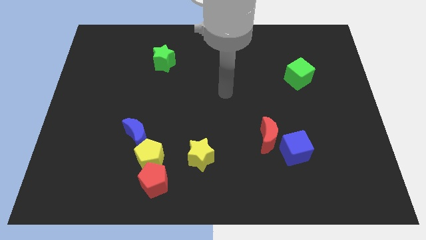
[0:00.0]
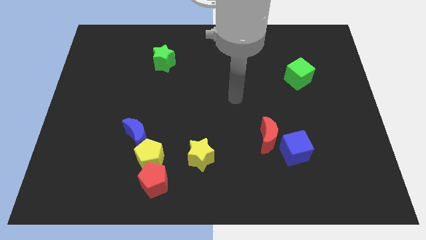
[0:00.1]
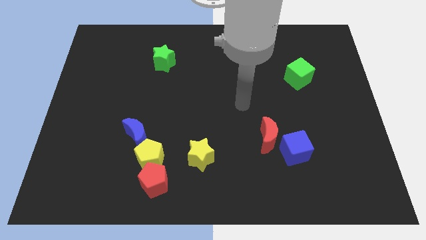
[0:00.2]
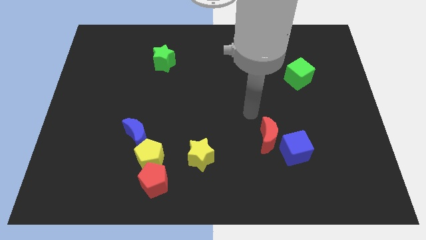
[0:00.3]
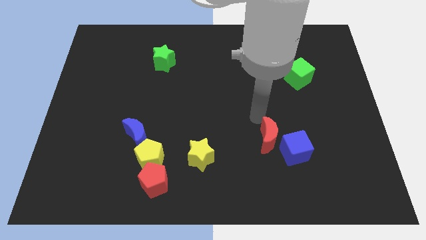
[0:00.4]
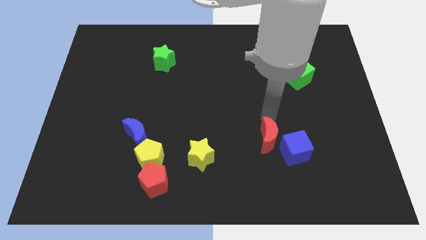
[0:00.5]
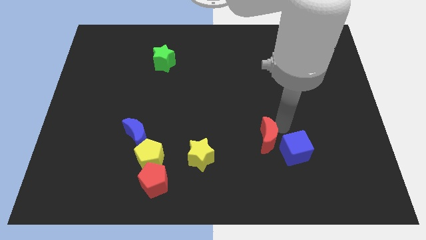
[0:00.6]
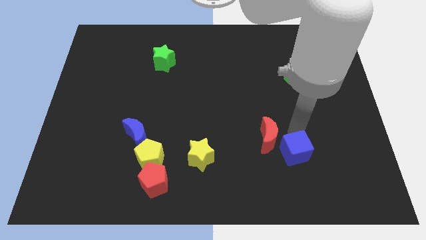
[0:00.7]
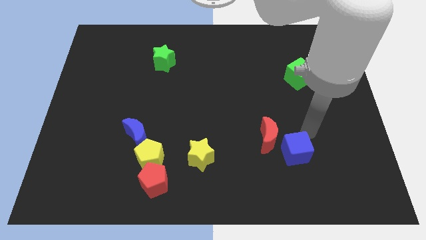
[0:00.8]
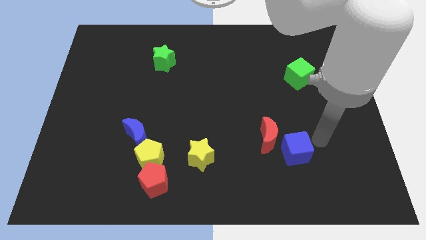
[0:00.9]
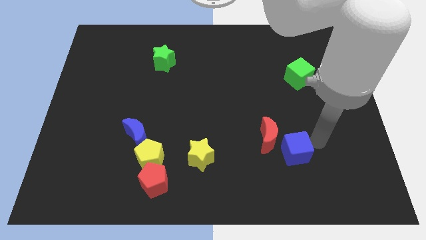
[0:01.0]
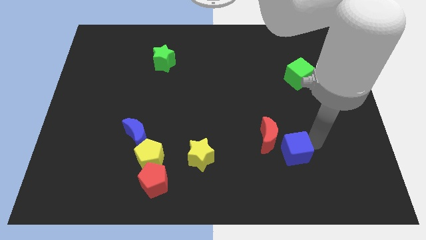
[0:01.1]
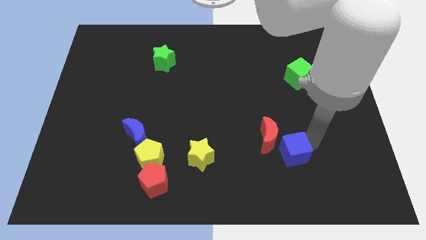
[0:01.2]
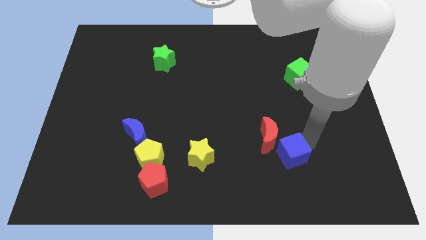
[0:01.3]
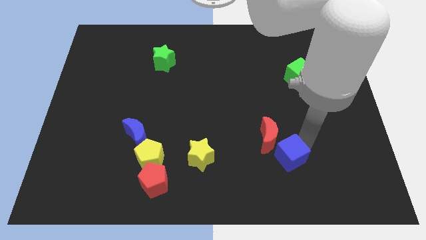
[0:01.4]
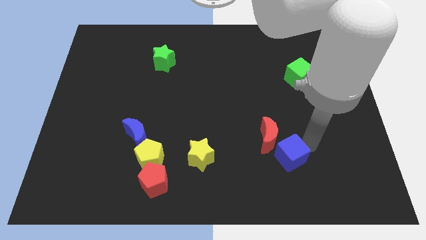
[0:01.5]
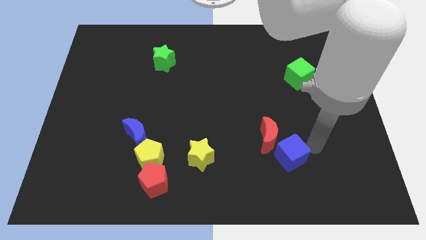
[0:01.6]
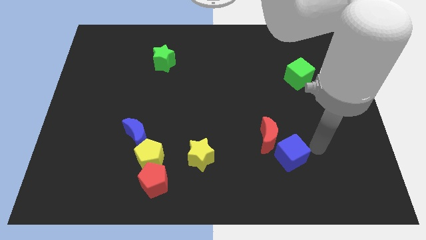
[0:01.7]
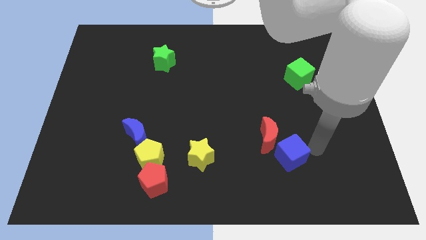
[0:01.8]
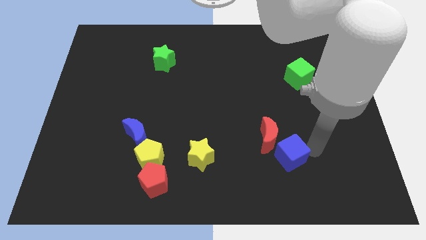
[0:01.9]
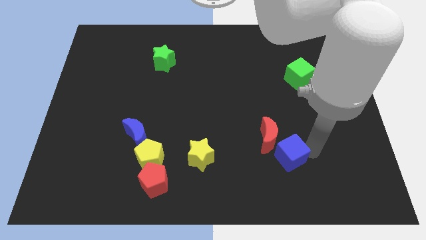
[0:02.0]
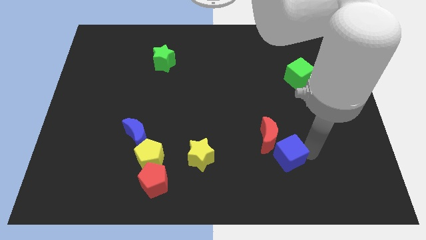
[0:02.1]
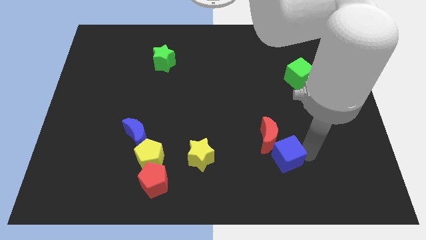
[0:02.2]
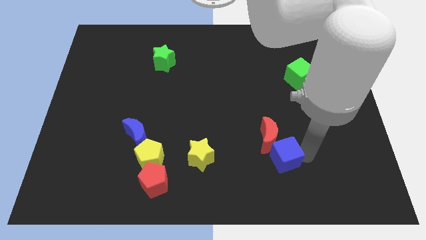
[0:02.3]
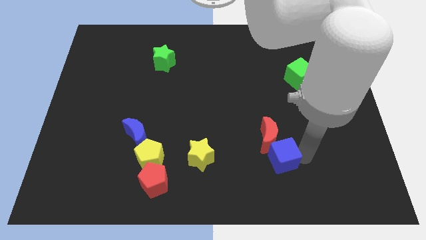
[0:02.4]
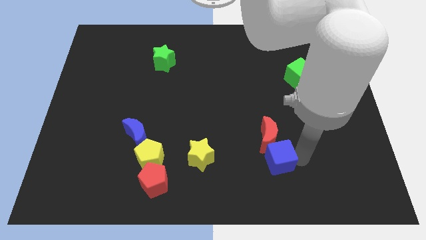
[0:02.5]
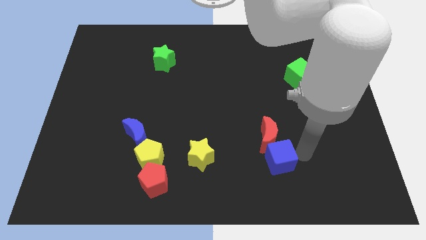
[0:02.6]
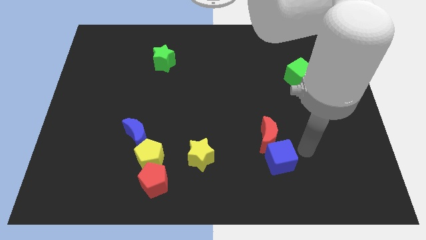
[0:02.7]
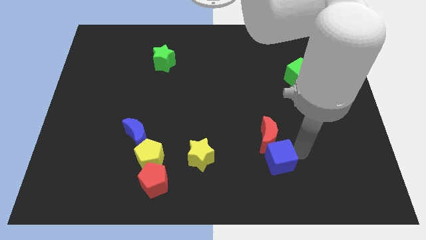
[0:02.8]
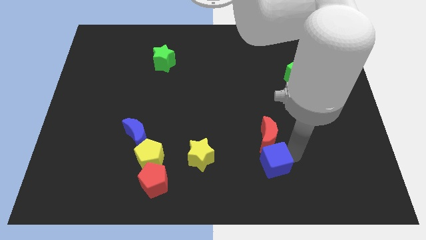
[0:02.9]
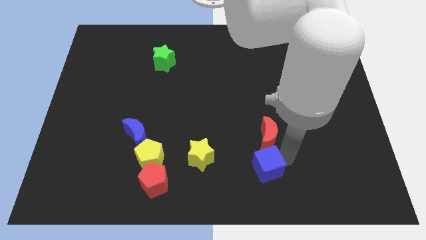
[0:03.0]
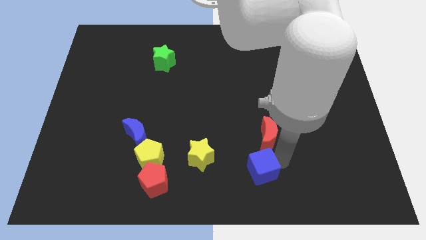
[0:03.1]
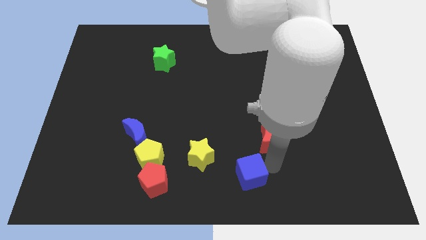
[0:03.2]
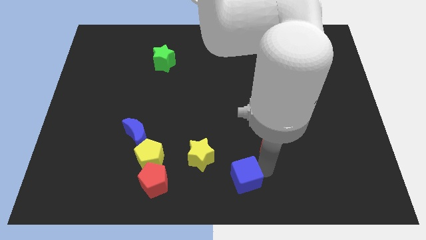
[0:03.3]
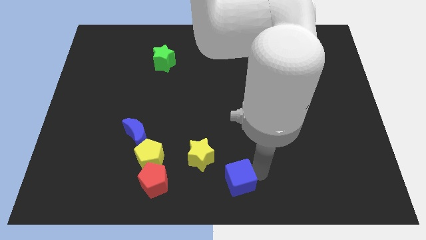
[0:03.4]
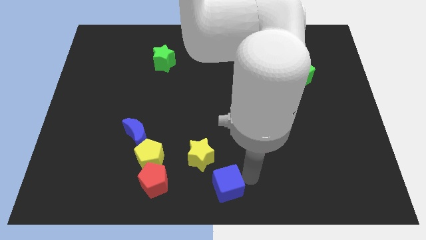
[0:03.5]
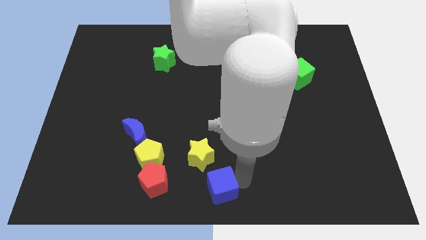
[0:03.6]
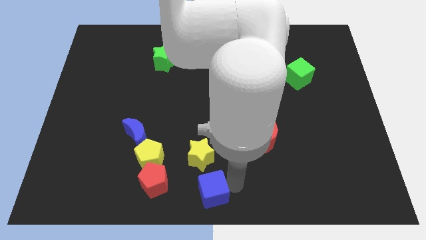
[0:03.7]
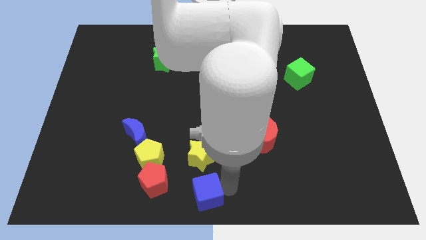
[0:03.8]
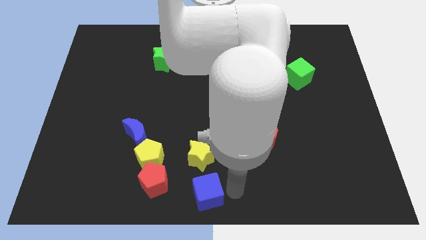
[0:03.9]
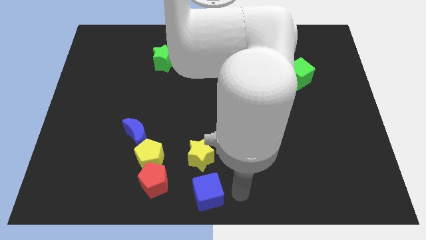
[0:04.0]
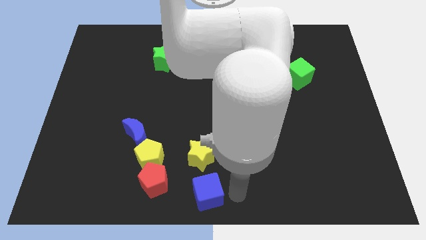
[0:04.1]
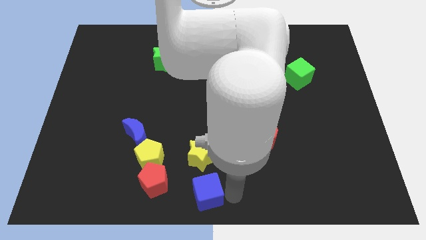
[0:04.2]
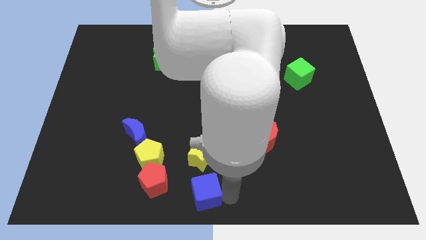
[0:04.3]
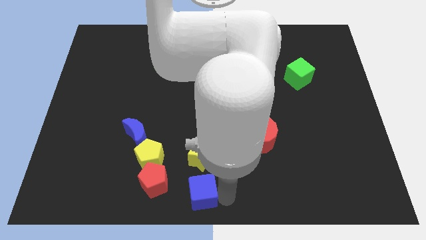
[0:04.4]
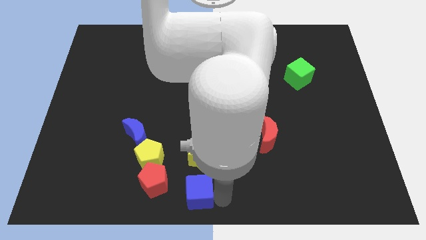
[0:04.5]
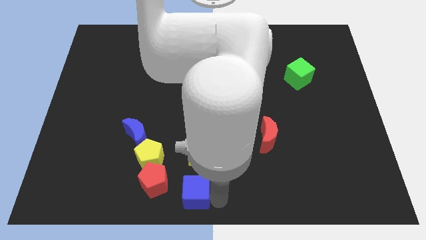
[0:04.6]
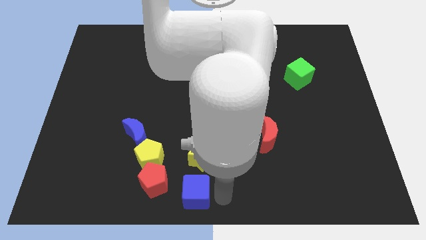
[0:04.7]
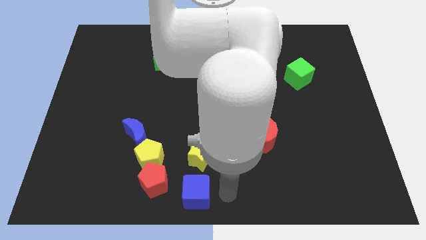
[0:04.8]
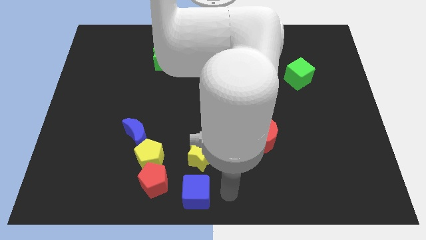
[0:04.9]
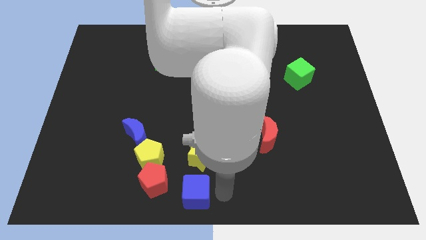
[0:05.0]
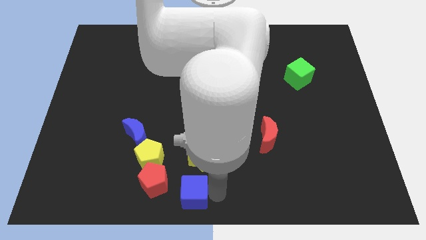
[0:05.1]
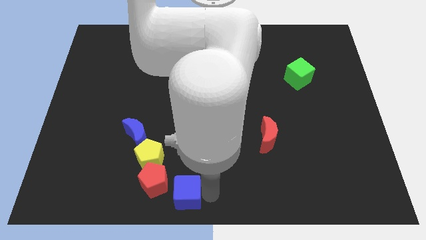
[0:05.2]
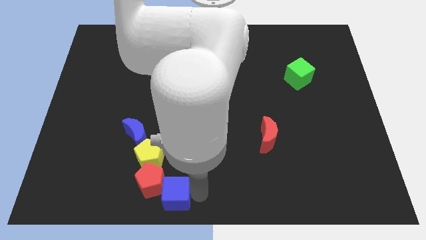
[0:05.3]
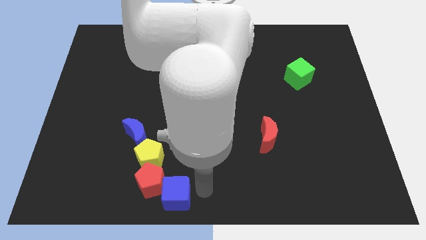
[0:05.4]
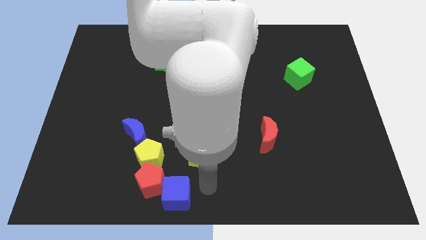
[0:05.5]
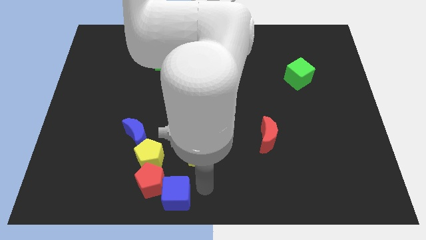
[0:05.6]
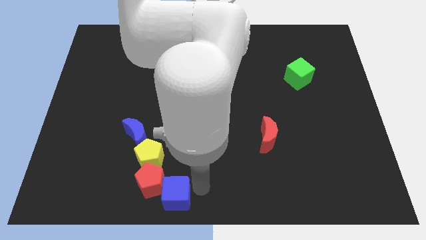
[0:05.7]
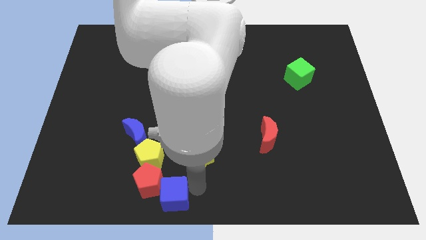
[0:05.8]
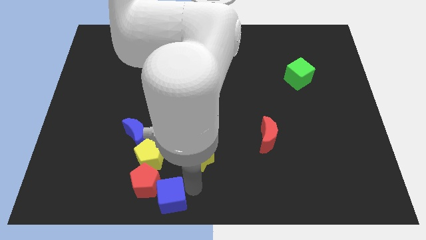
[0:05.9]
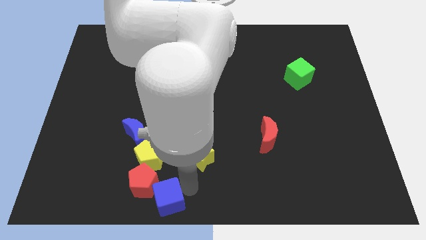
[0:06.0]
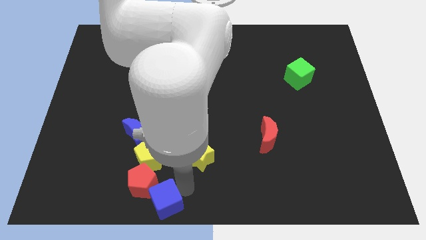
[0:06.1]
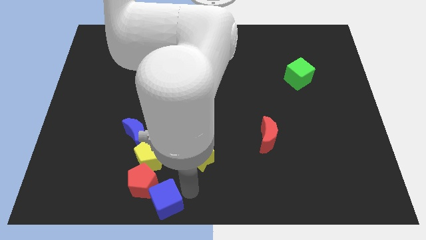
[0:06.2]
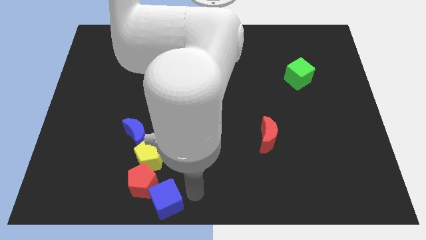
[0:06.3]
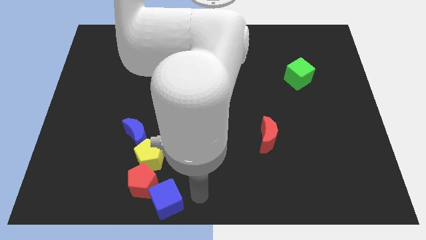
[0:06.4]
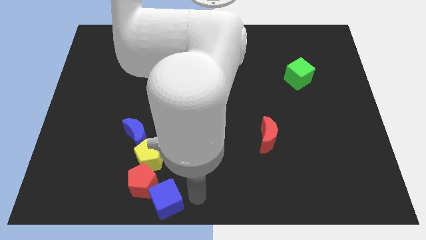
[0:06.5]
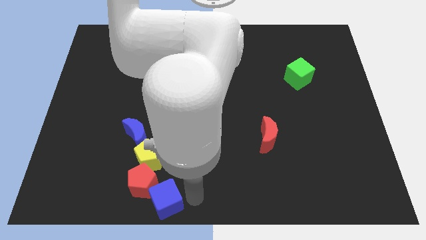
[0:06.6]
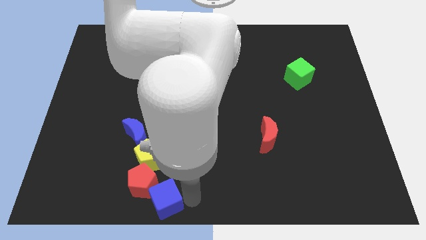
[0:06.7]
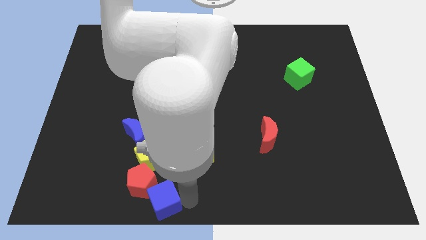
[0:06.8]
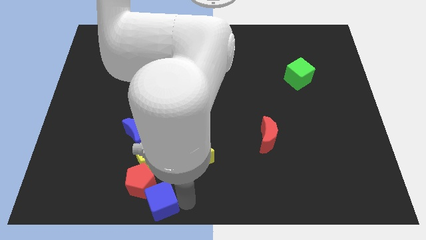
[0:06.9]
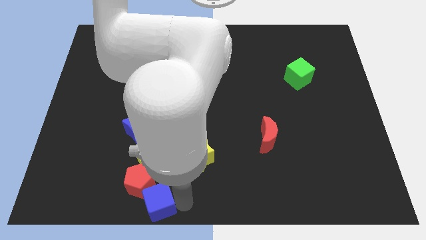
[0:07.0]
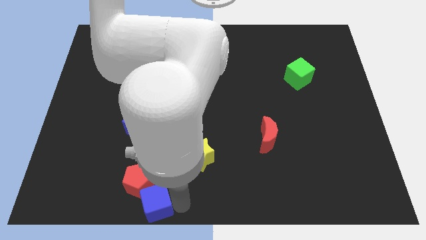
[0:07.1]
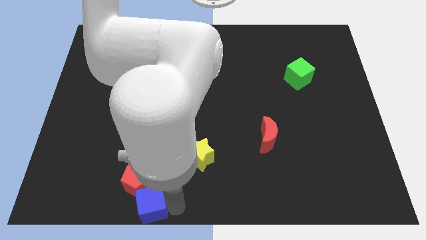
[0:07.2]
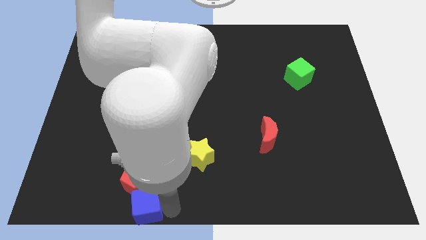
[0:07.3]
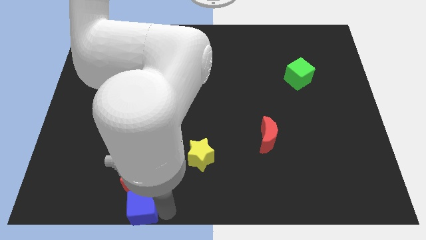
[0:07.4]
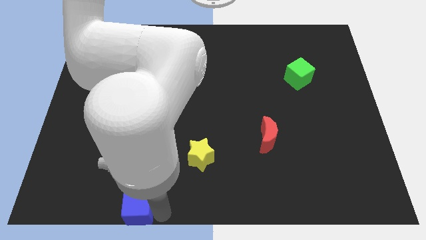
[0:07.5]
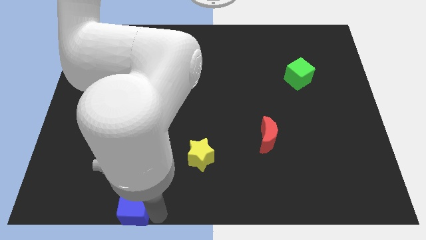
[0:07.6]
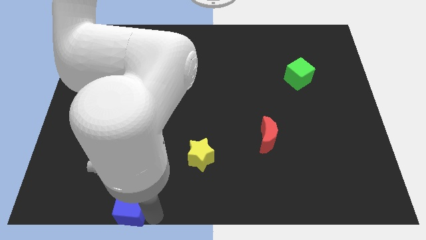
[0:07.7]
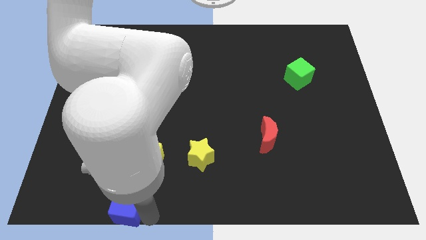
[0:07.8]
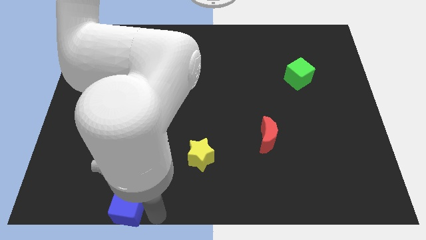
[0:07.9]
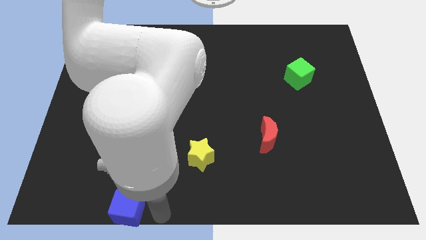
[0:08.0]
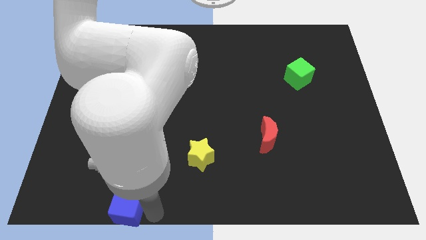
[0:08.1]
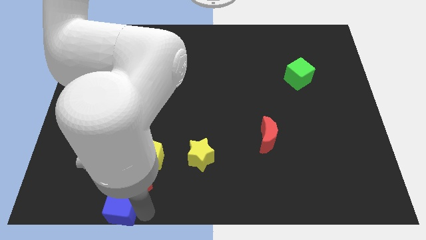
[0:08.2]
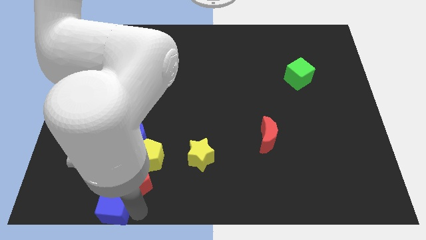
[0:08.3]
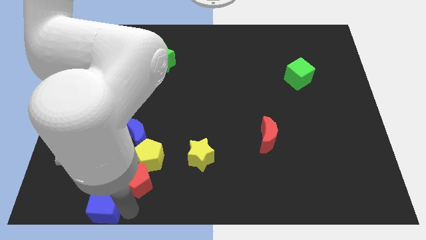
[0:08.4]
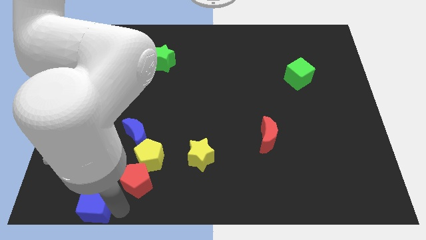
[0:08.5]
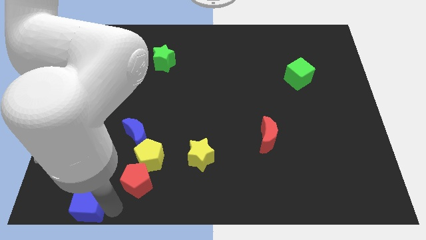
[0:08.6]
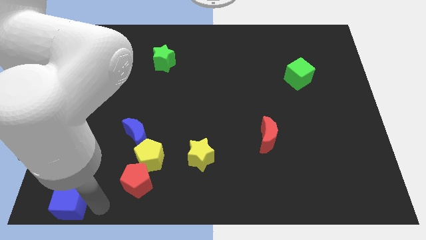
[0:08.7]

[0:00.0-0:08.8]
move the blue cube to the bottom left
